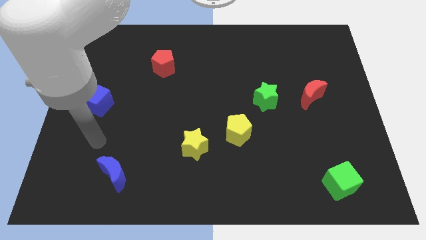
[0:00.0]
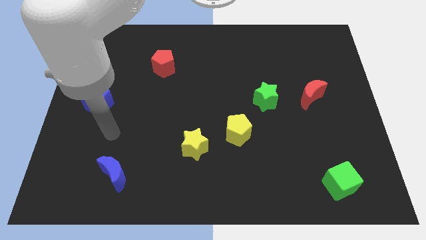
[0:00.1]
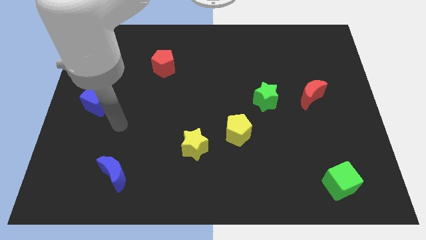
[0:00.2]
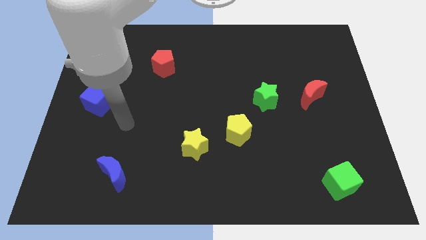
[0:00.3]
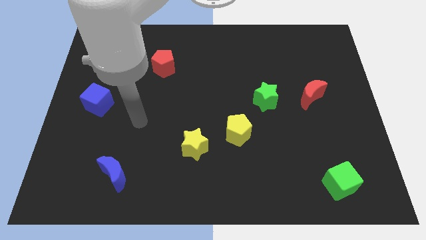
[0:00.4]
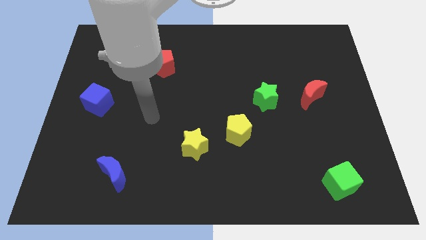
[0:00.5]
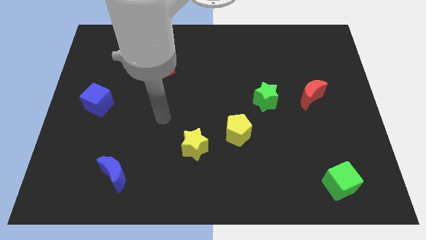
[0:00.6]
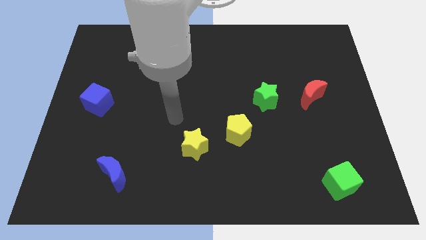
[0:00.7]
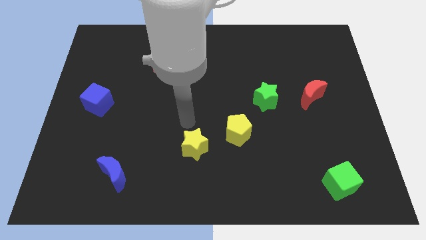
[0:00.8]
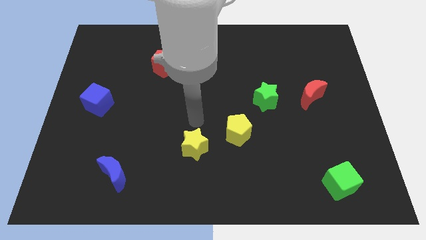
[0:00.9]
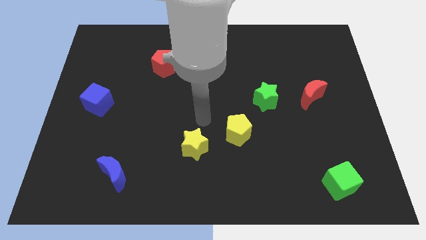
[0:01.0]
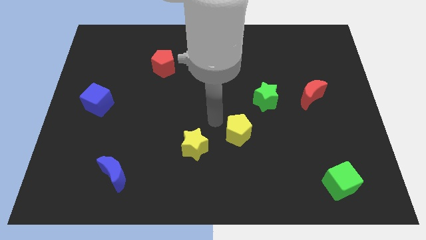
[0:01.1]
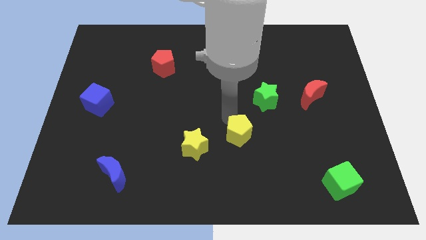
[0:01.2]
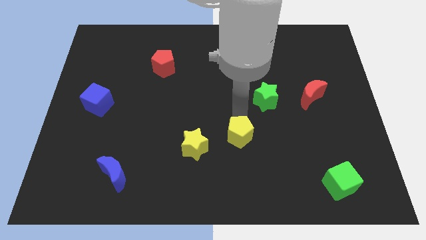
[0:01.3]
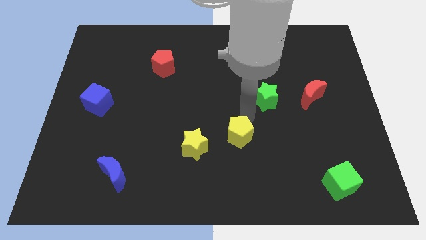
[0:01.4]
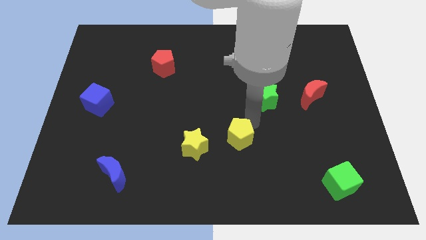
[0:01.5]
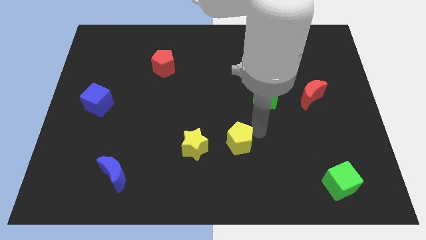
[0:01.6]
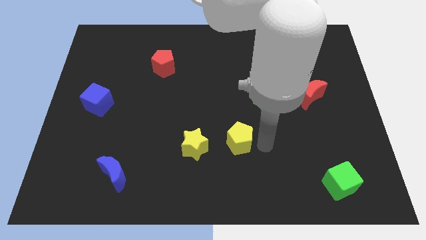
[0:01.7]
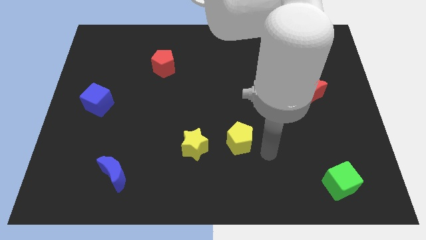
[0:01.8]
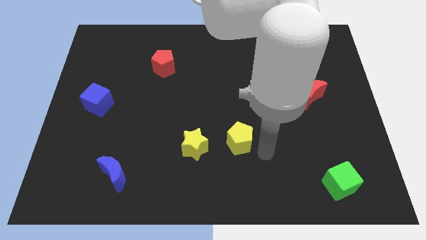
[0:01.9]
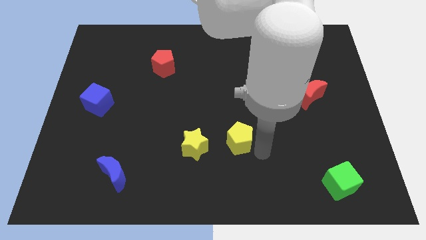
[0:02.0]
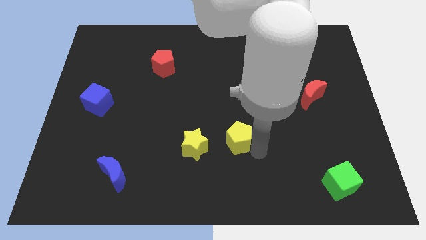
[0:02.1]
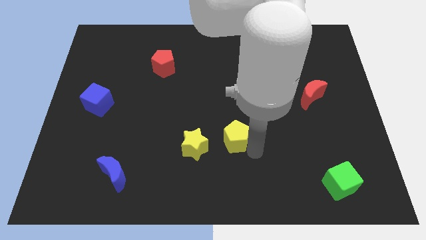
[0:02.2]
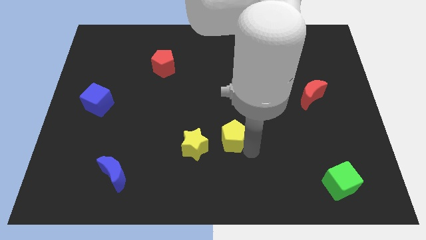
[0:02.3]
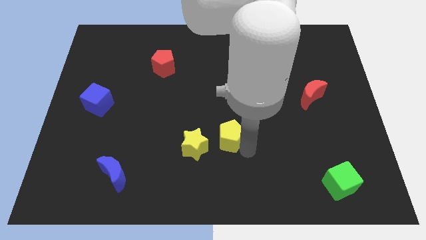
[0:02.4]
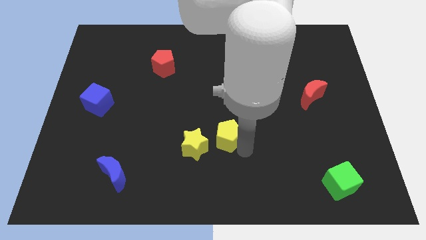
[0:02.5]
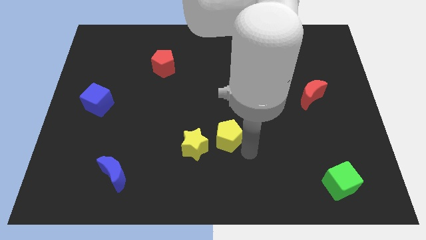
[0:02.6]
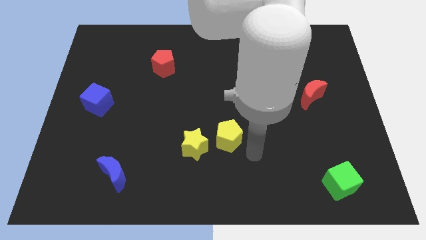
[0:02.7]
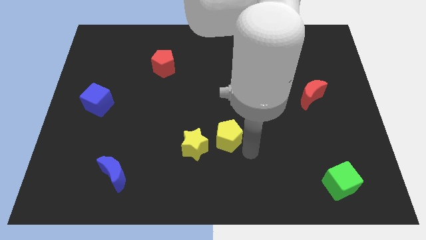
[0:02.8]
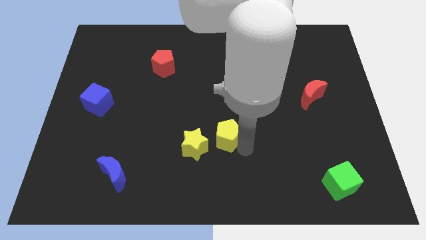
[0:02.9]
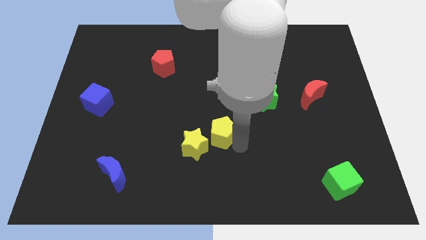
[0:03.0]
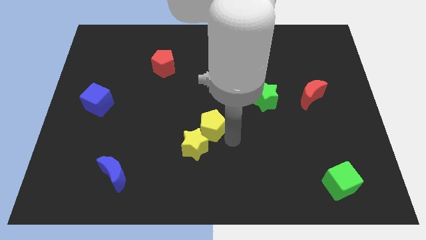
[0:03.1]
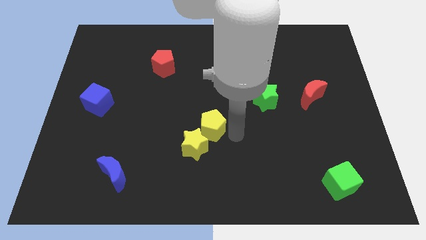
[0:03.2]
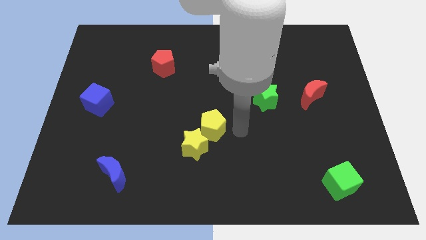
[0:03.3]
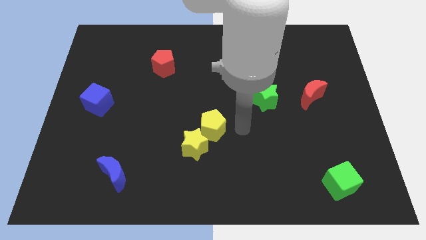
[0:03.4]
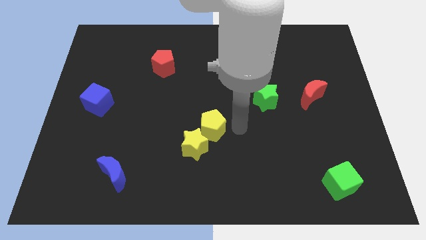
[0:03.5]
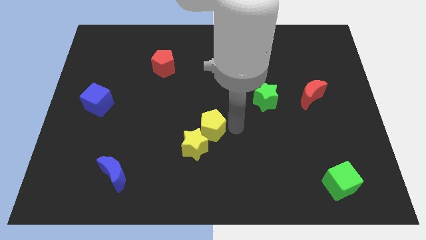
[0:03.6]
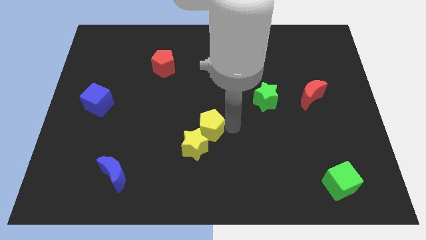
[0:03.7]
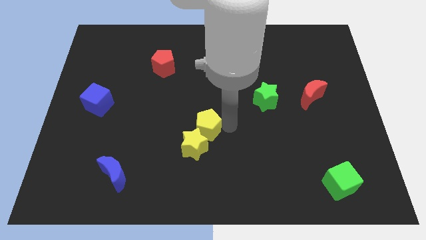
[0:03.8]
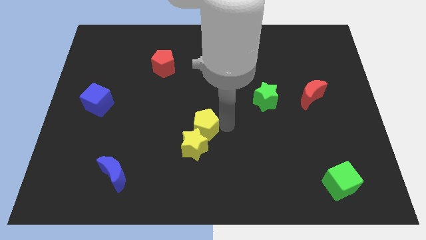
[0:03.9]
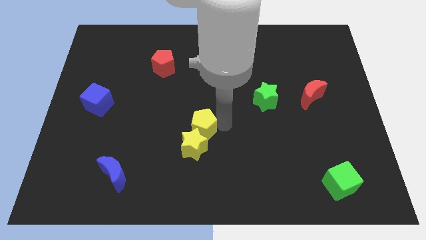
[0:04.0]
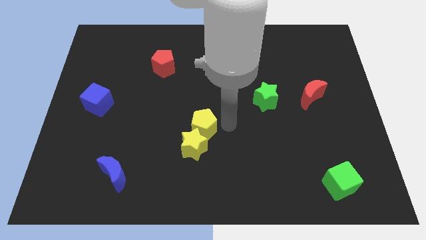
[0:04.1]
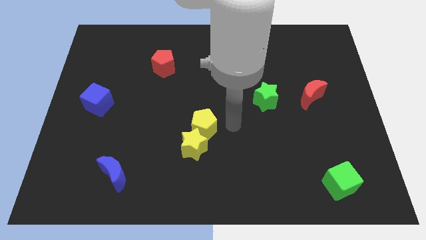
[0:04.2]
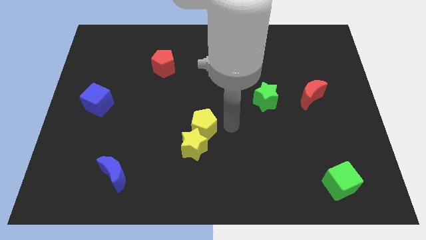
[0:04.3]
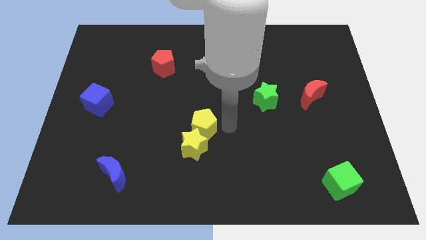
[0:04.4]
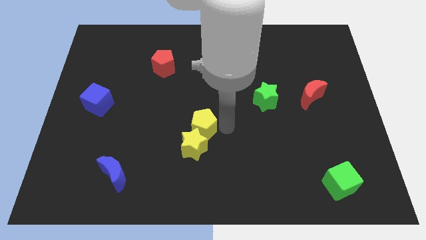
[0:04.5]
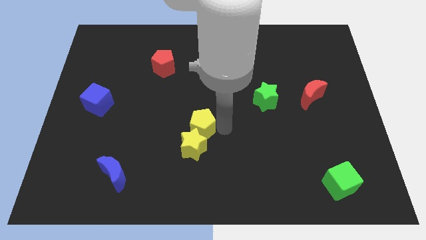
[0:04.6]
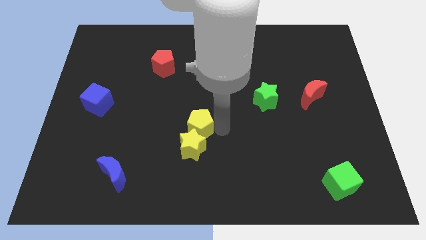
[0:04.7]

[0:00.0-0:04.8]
move the yellow pentagon to the top left of the yellow star

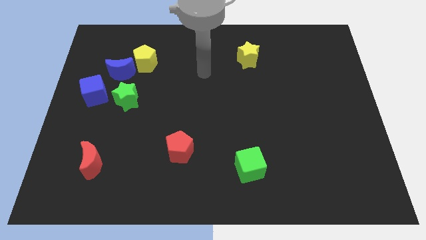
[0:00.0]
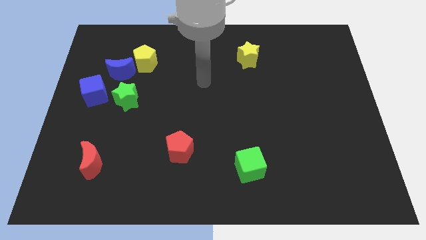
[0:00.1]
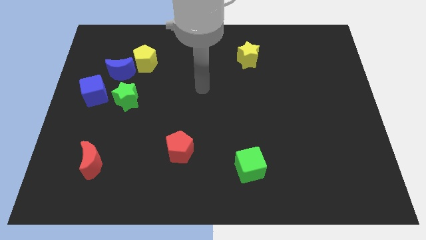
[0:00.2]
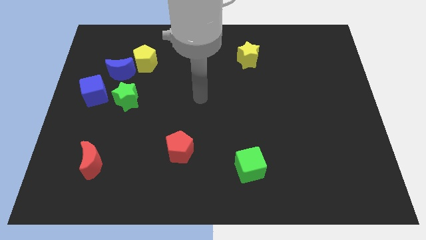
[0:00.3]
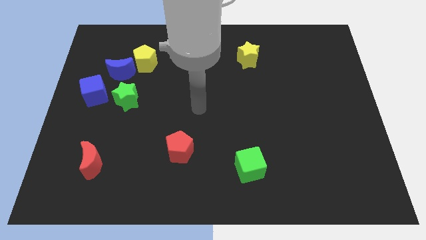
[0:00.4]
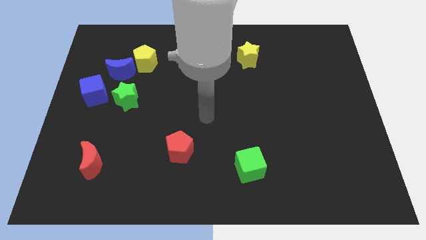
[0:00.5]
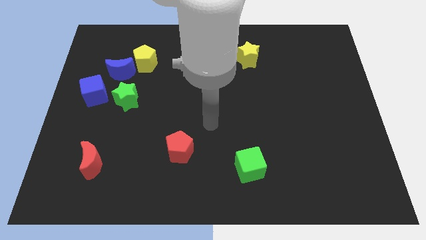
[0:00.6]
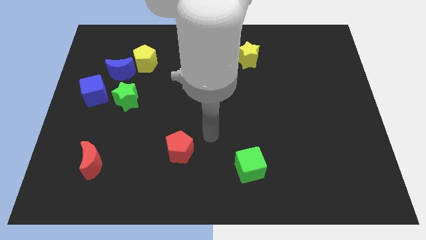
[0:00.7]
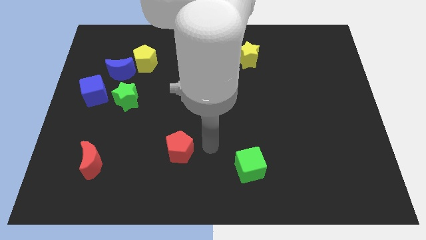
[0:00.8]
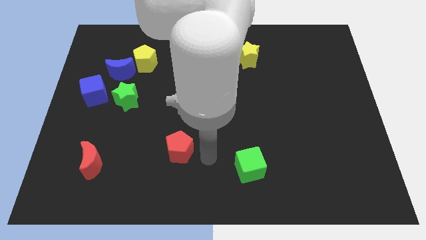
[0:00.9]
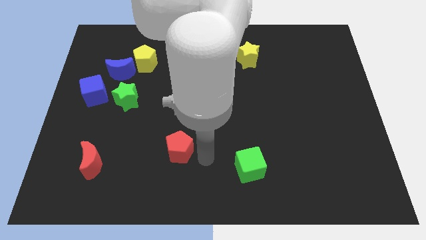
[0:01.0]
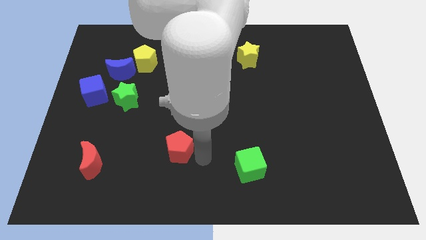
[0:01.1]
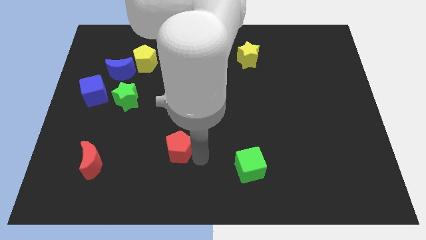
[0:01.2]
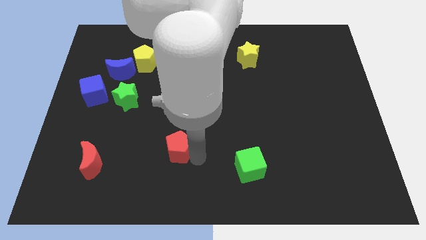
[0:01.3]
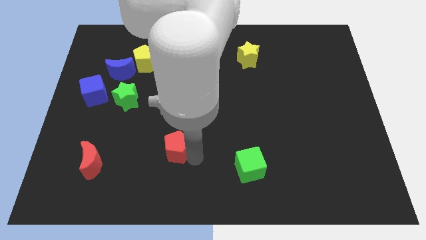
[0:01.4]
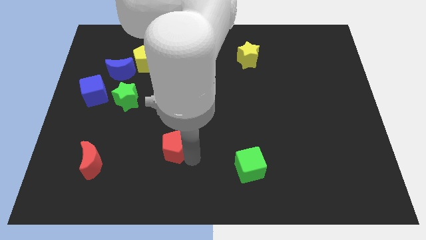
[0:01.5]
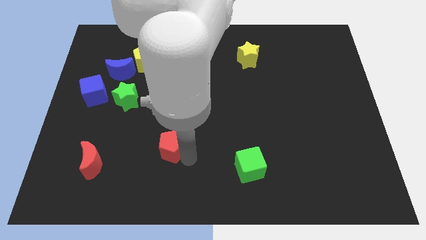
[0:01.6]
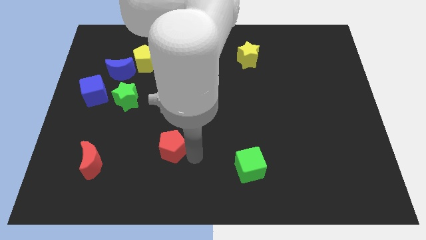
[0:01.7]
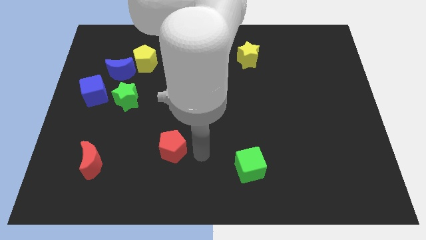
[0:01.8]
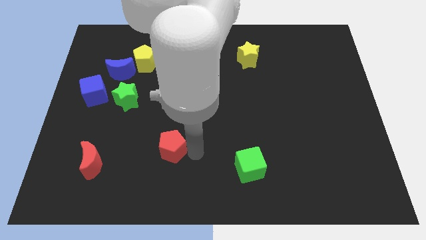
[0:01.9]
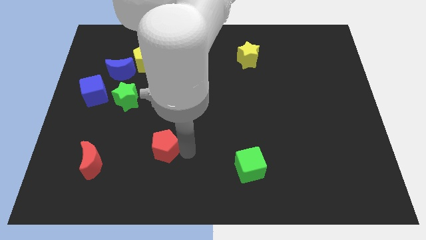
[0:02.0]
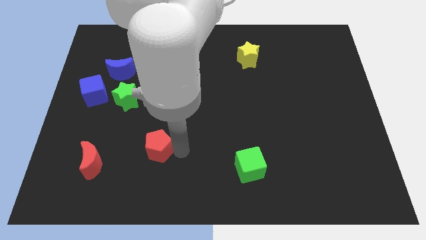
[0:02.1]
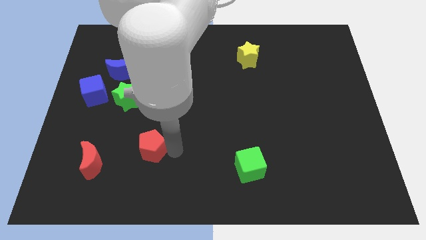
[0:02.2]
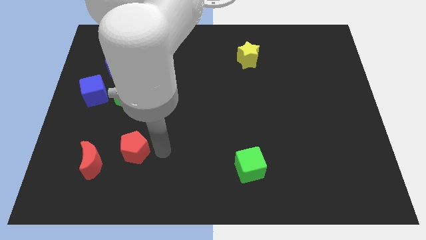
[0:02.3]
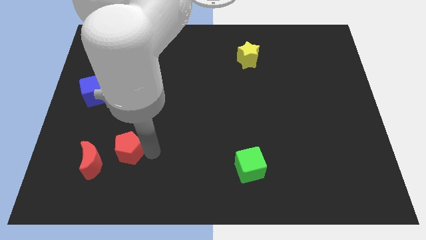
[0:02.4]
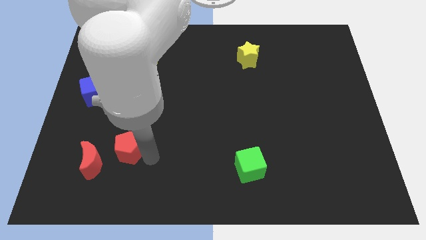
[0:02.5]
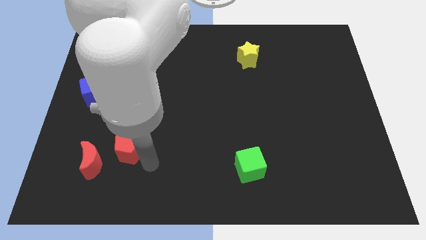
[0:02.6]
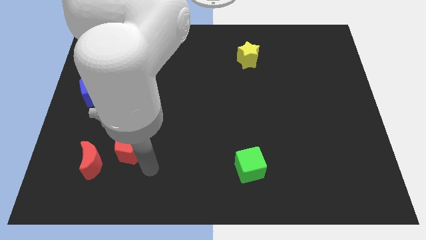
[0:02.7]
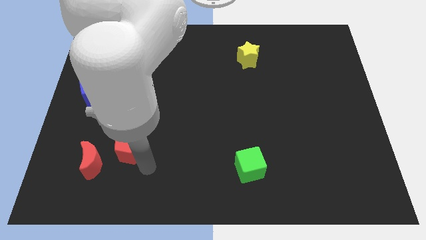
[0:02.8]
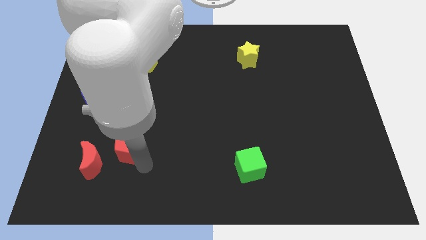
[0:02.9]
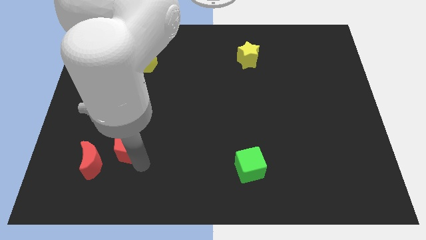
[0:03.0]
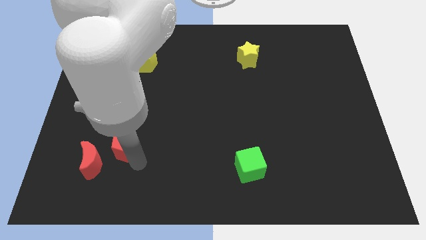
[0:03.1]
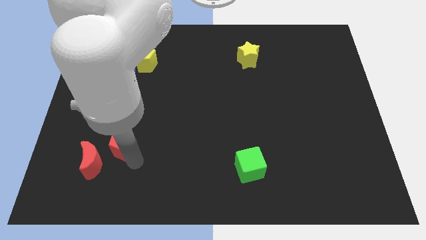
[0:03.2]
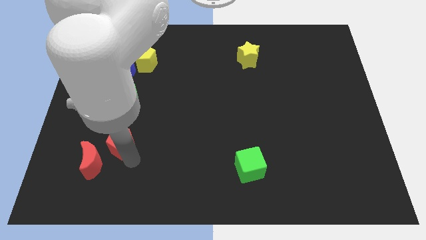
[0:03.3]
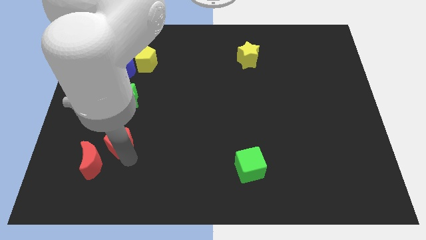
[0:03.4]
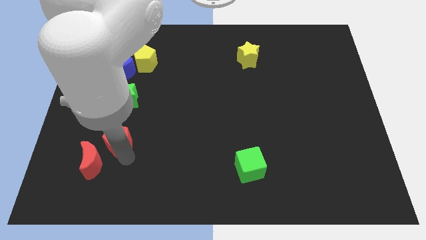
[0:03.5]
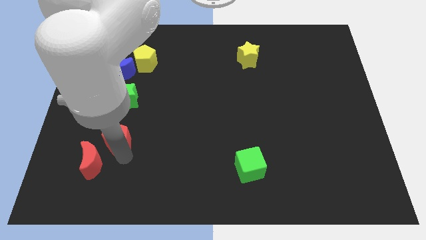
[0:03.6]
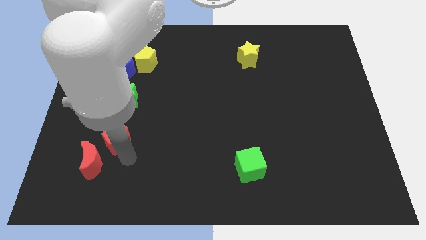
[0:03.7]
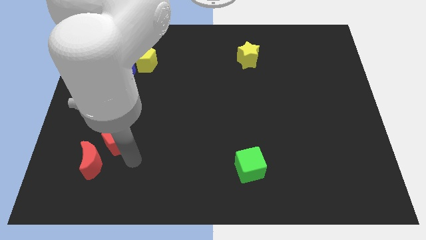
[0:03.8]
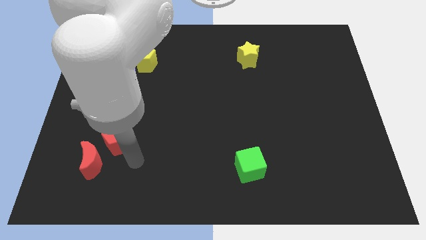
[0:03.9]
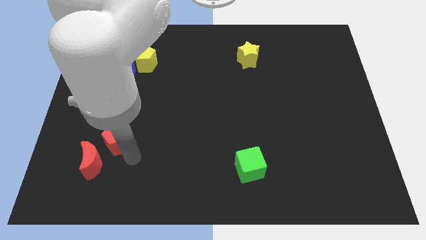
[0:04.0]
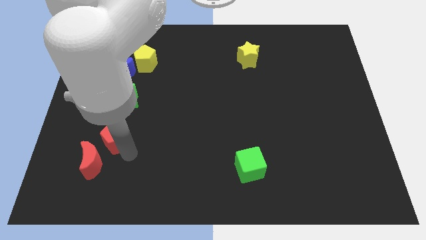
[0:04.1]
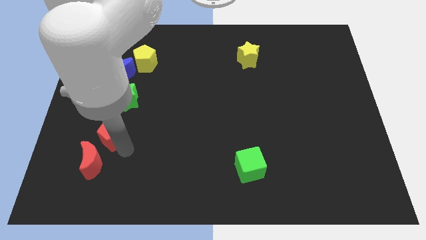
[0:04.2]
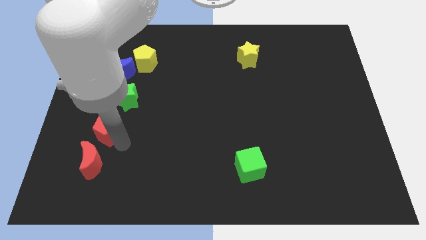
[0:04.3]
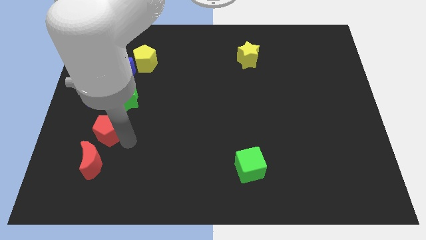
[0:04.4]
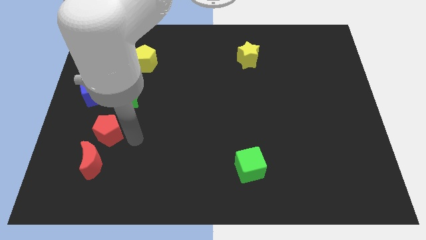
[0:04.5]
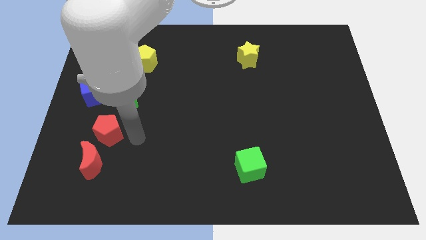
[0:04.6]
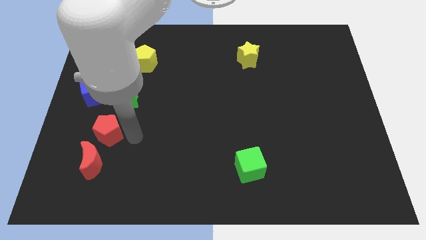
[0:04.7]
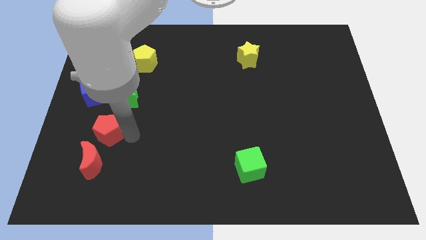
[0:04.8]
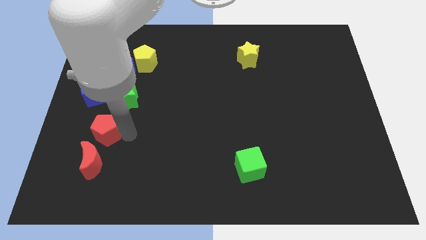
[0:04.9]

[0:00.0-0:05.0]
move the red pentagon to the bottom of the blue cube
